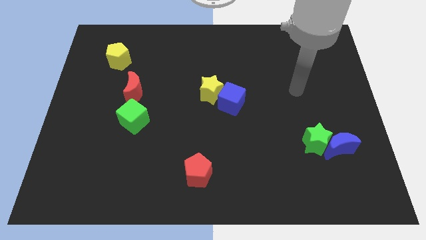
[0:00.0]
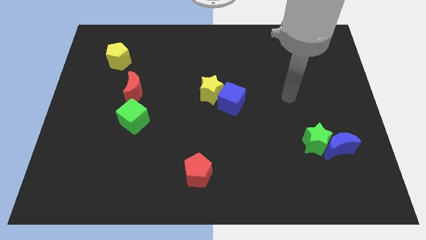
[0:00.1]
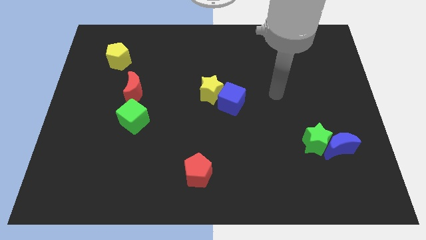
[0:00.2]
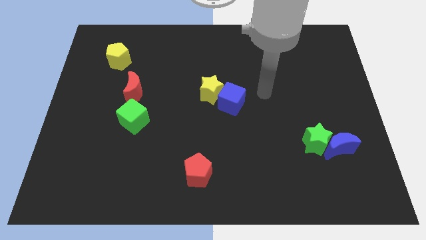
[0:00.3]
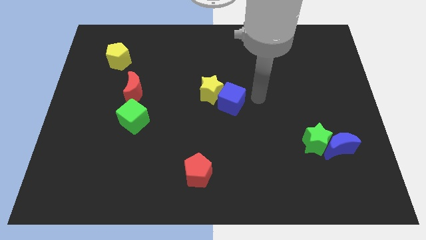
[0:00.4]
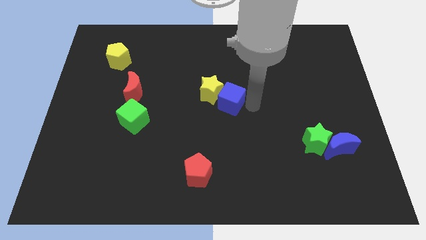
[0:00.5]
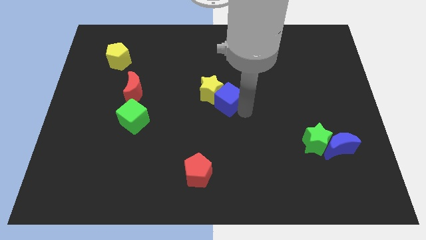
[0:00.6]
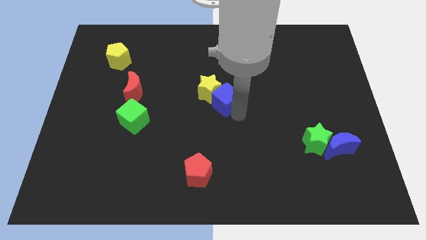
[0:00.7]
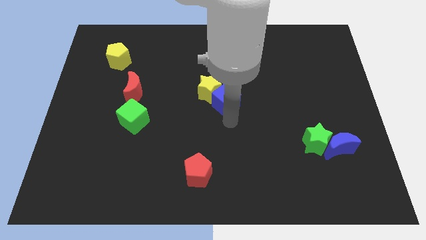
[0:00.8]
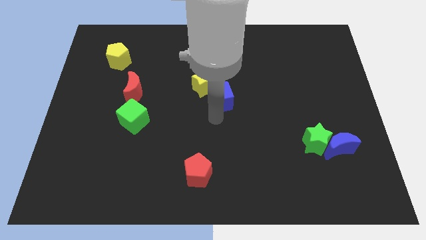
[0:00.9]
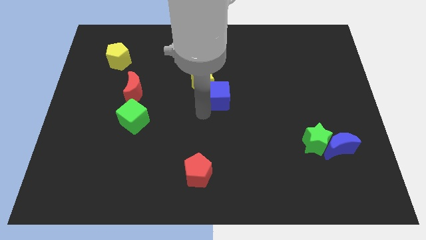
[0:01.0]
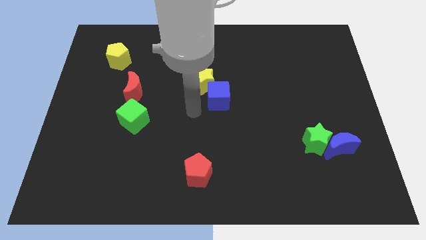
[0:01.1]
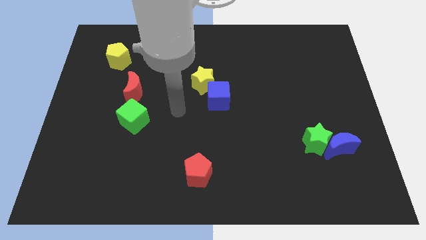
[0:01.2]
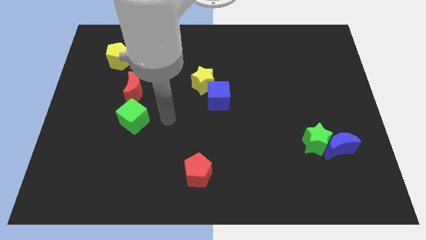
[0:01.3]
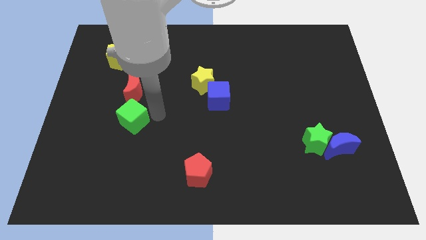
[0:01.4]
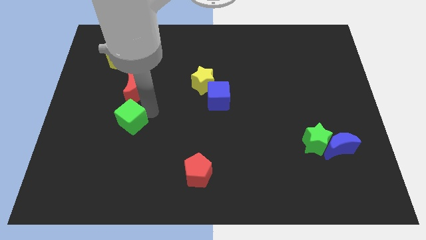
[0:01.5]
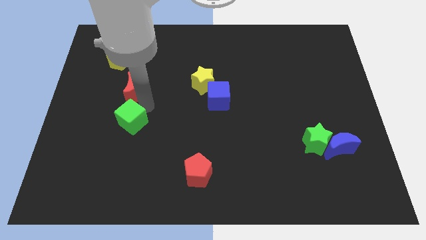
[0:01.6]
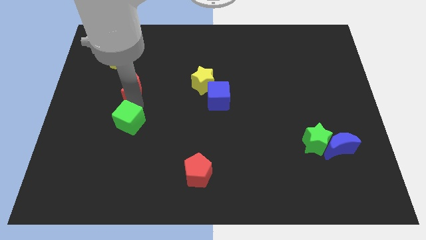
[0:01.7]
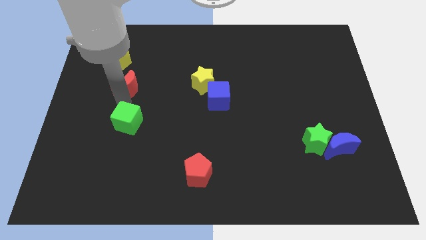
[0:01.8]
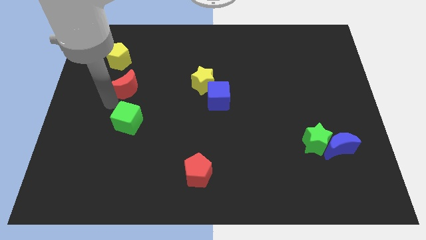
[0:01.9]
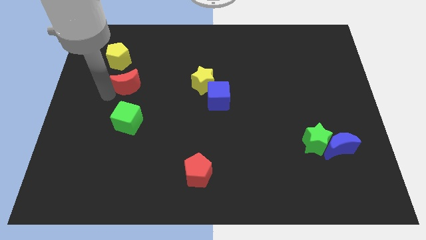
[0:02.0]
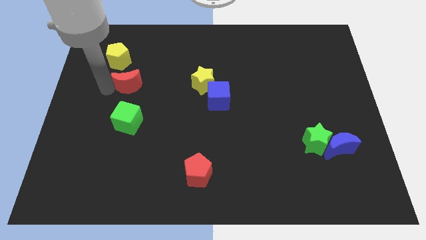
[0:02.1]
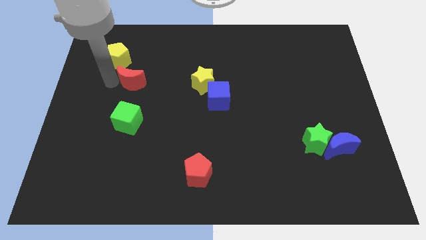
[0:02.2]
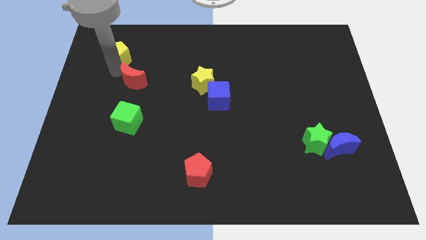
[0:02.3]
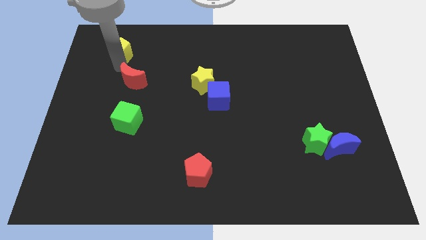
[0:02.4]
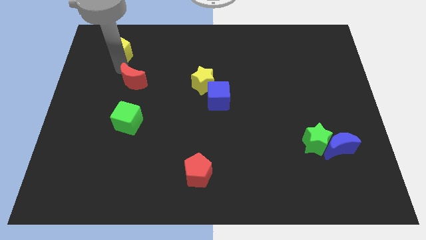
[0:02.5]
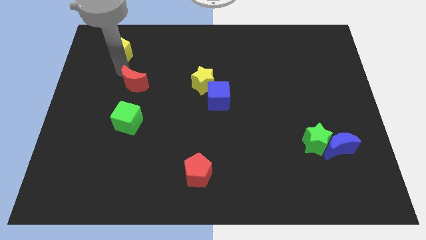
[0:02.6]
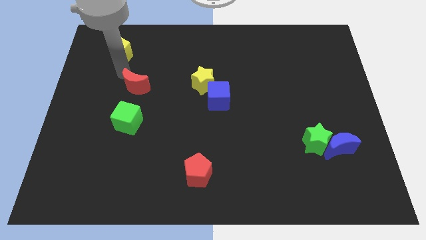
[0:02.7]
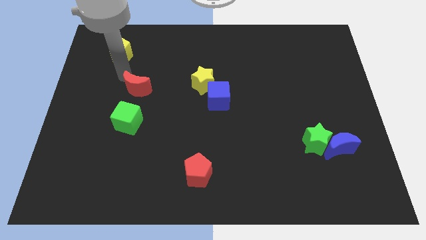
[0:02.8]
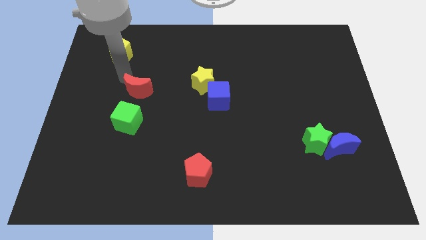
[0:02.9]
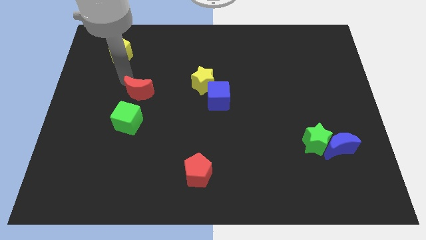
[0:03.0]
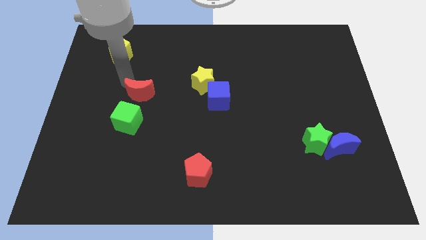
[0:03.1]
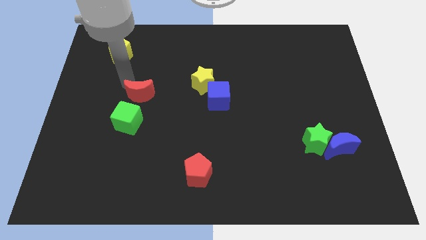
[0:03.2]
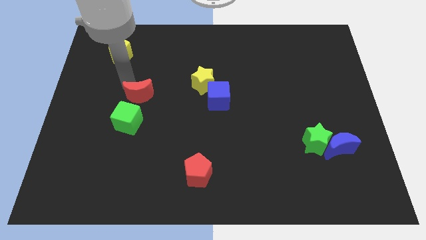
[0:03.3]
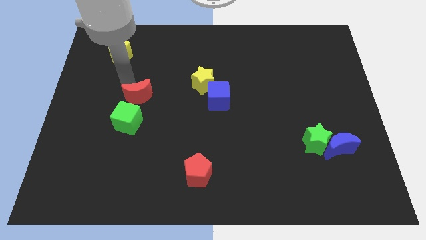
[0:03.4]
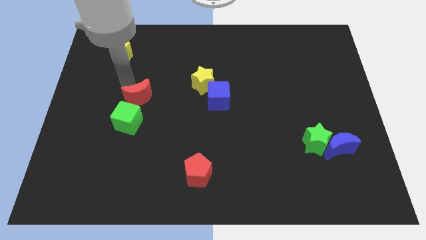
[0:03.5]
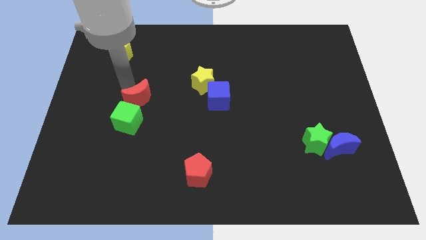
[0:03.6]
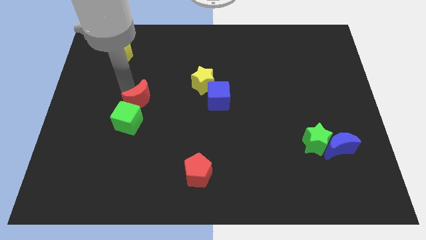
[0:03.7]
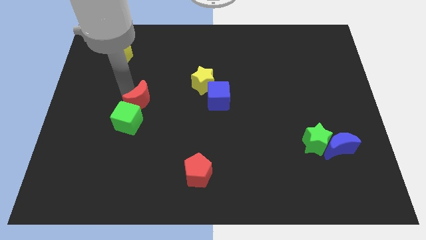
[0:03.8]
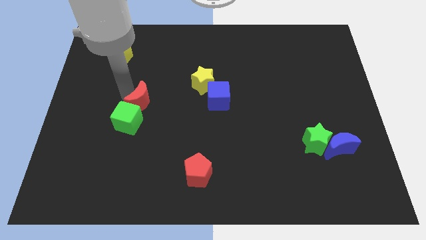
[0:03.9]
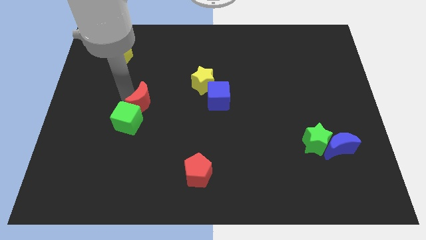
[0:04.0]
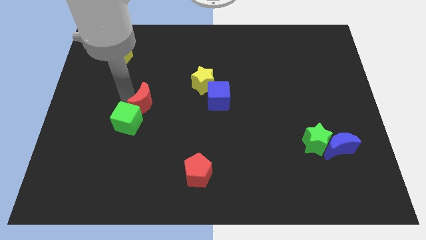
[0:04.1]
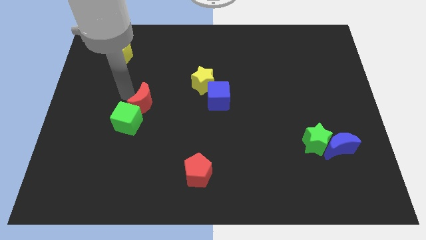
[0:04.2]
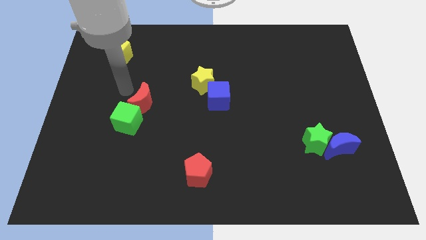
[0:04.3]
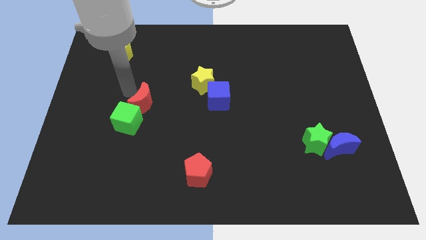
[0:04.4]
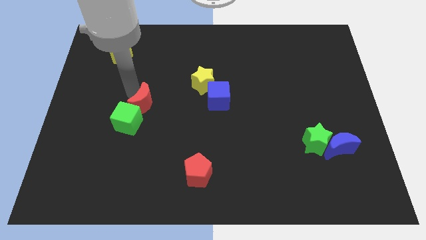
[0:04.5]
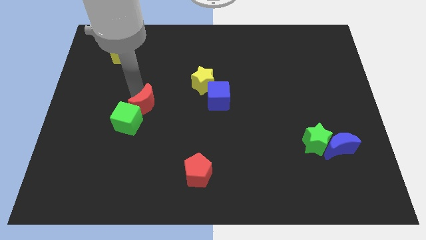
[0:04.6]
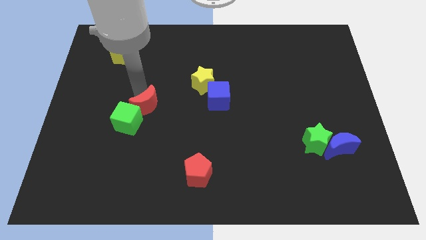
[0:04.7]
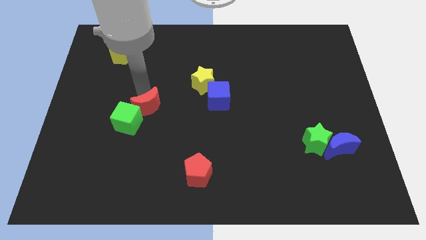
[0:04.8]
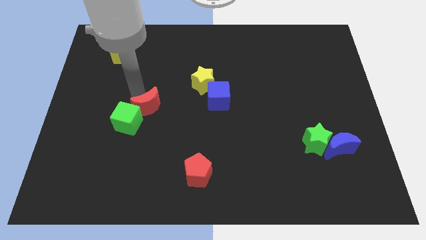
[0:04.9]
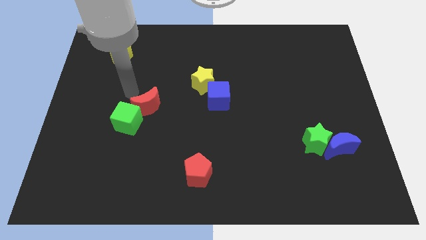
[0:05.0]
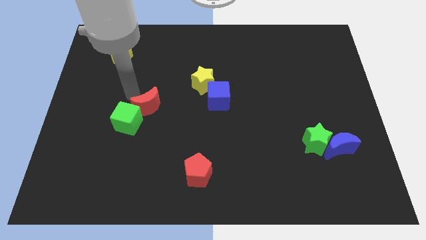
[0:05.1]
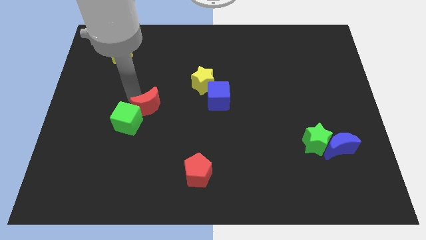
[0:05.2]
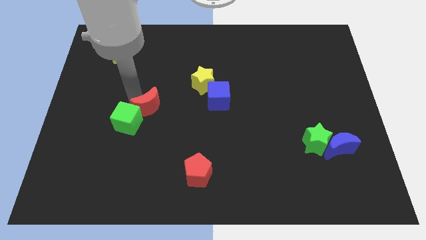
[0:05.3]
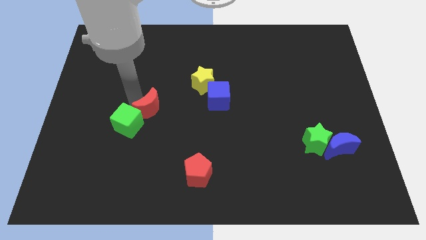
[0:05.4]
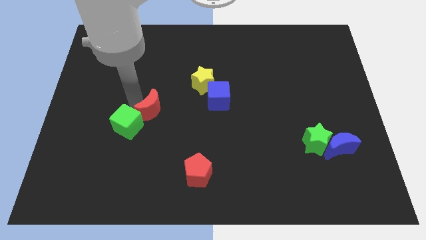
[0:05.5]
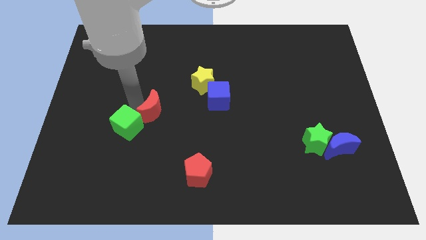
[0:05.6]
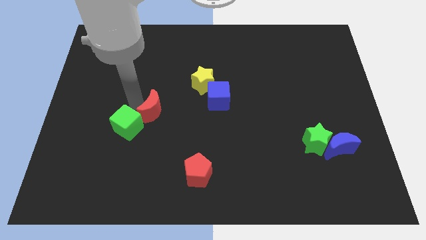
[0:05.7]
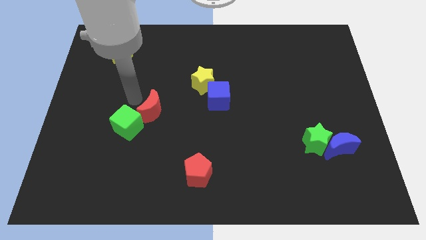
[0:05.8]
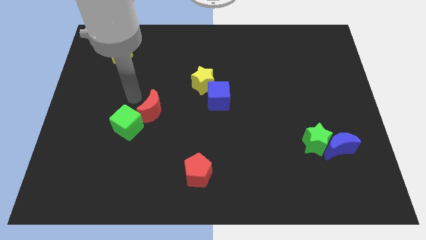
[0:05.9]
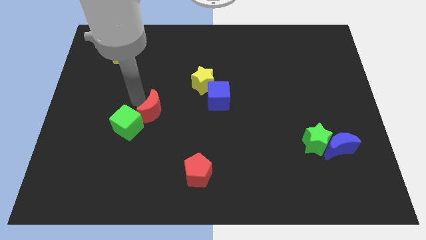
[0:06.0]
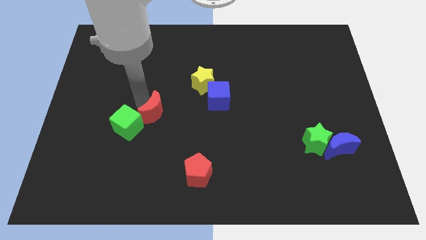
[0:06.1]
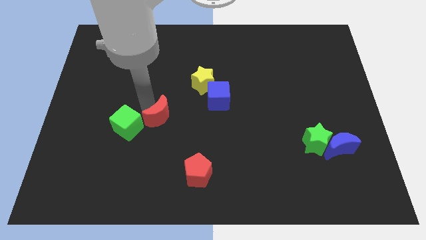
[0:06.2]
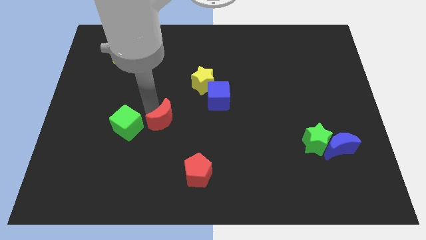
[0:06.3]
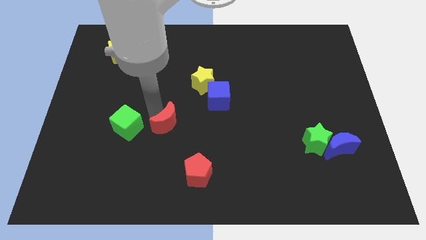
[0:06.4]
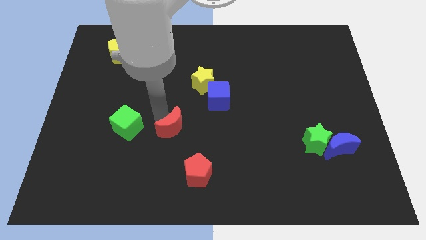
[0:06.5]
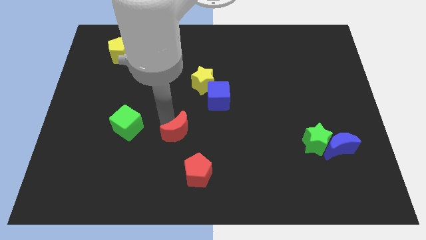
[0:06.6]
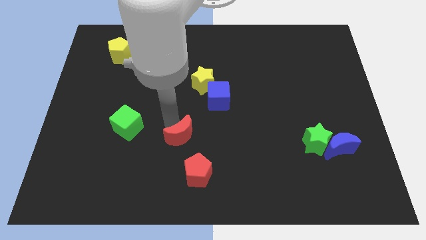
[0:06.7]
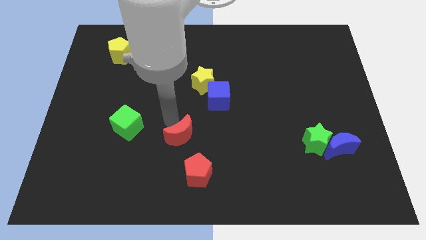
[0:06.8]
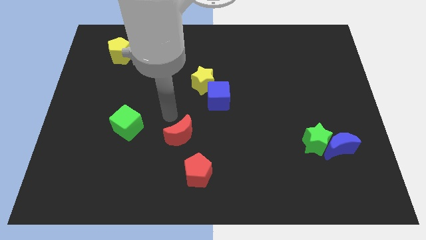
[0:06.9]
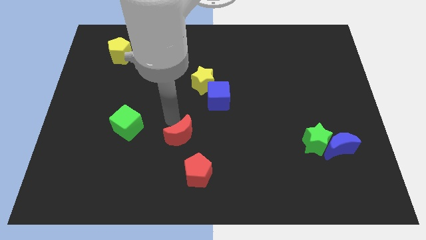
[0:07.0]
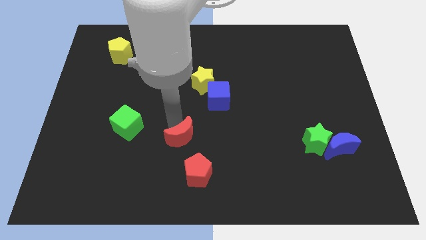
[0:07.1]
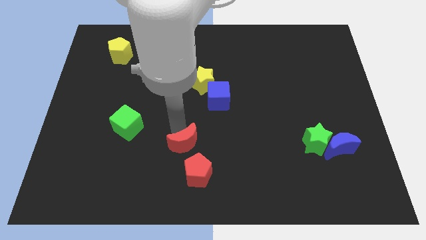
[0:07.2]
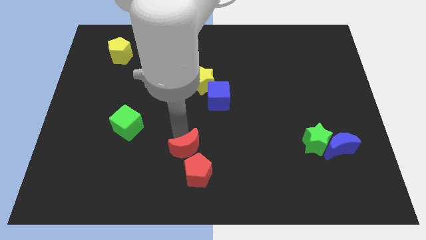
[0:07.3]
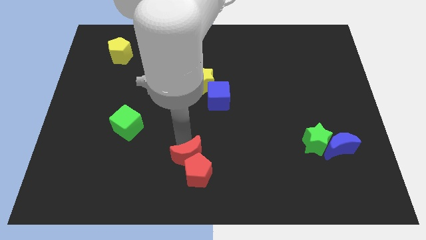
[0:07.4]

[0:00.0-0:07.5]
push the red moon to the red pentagon
